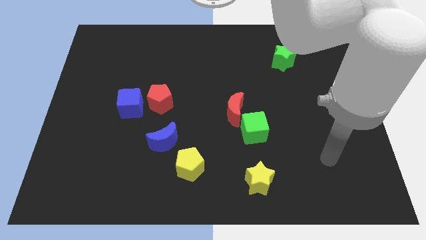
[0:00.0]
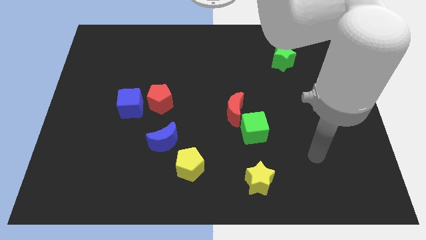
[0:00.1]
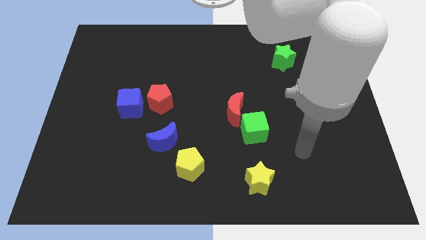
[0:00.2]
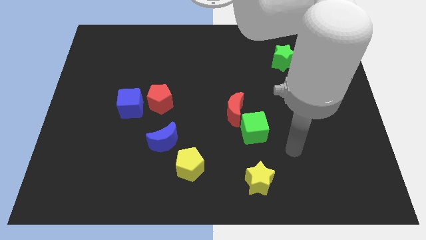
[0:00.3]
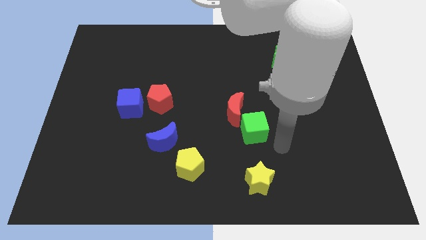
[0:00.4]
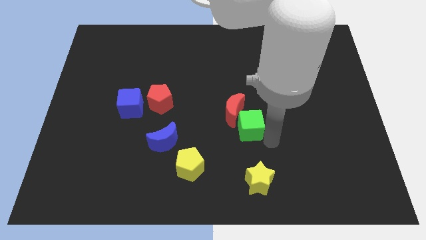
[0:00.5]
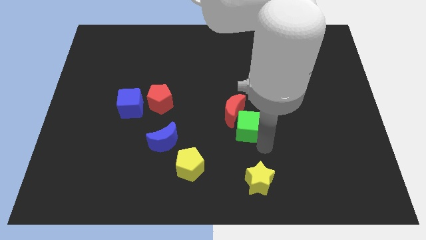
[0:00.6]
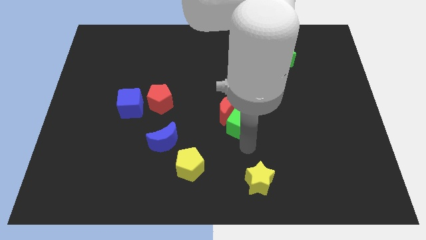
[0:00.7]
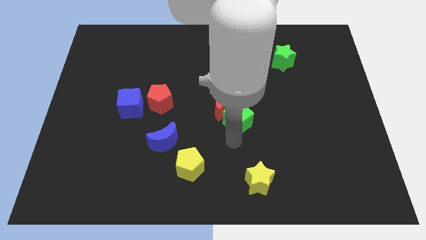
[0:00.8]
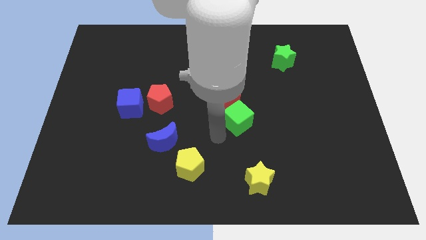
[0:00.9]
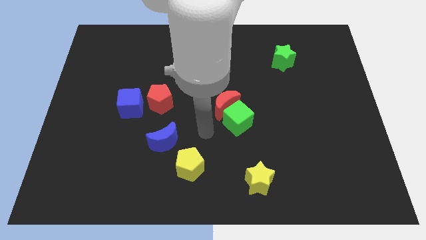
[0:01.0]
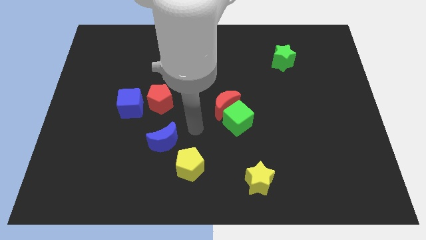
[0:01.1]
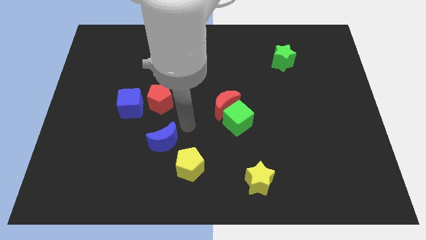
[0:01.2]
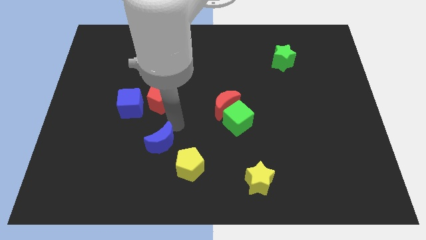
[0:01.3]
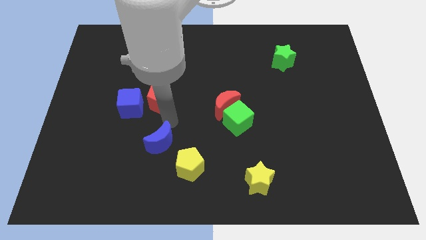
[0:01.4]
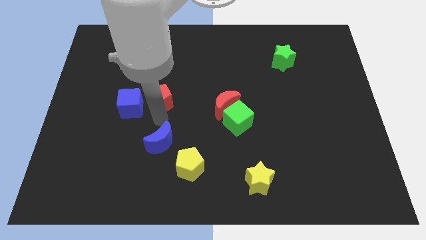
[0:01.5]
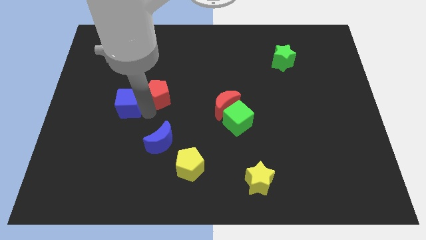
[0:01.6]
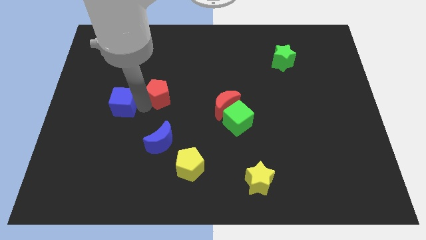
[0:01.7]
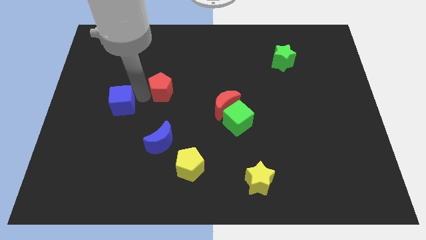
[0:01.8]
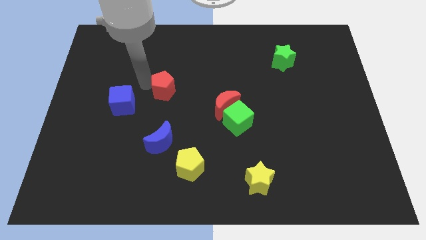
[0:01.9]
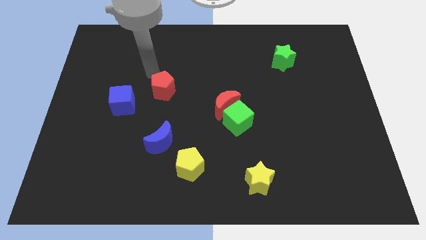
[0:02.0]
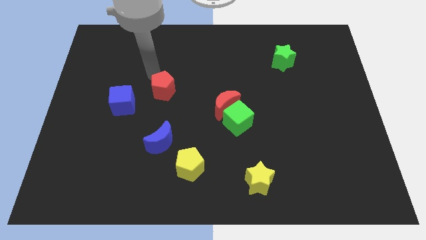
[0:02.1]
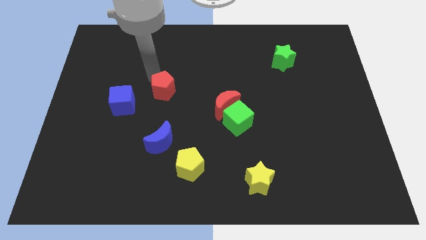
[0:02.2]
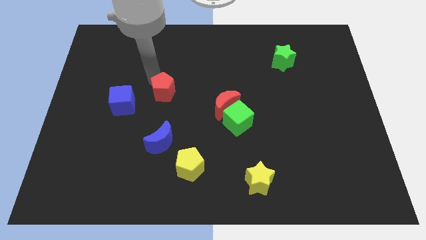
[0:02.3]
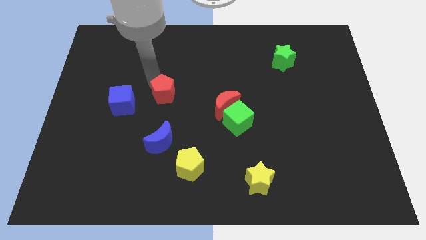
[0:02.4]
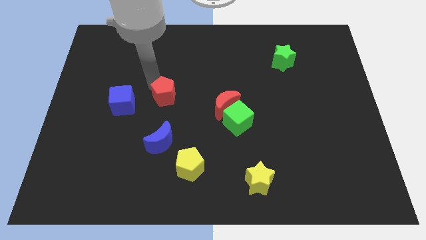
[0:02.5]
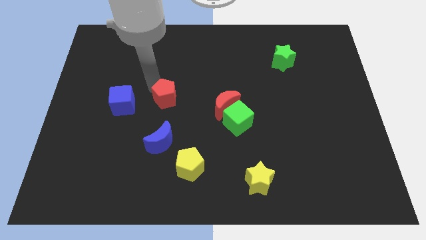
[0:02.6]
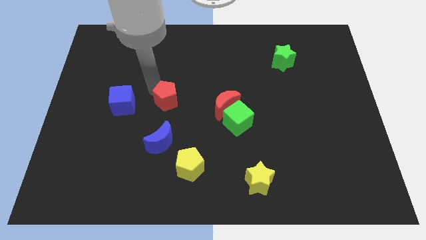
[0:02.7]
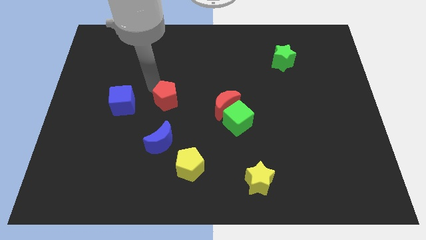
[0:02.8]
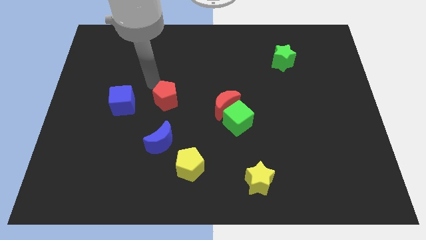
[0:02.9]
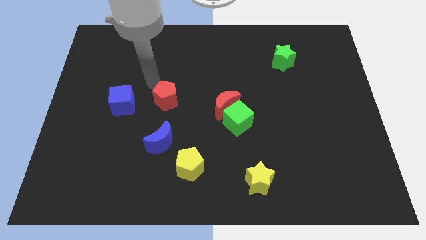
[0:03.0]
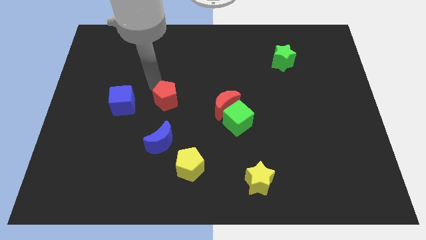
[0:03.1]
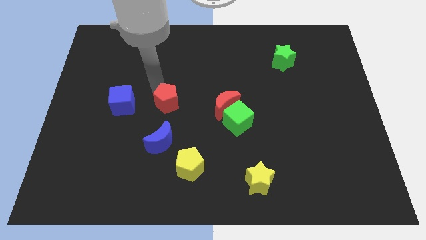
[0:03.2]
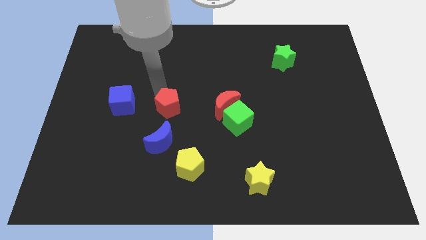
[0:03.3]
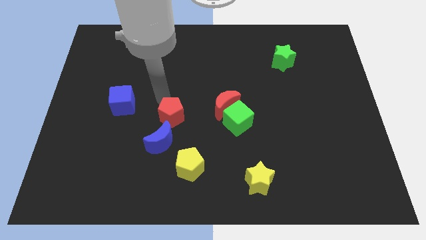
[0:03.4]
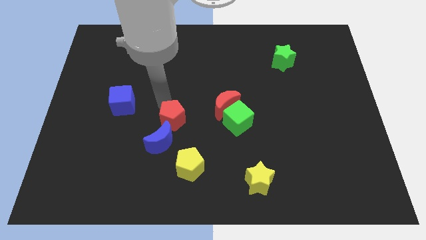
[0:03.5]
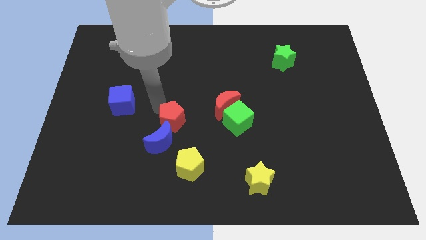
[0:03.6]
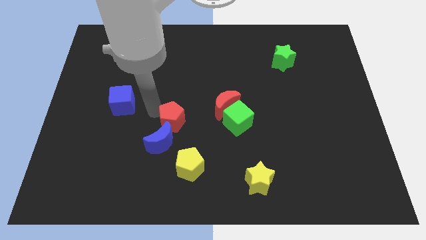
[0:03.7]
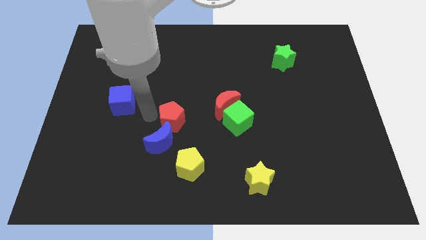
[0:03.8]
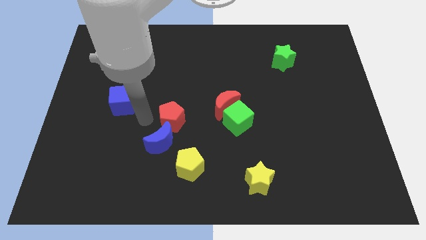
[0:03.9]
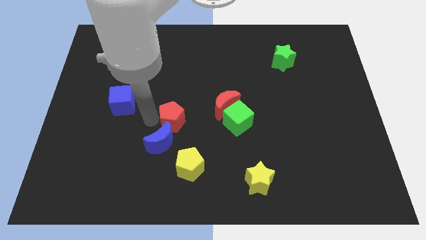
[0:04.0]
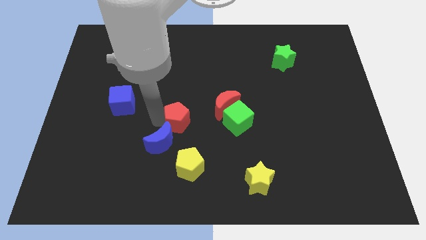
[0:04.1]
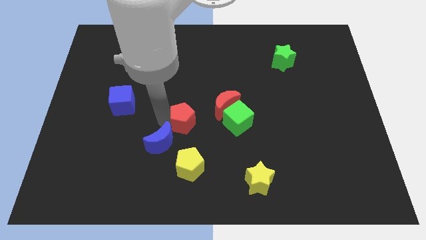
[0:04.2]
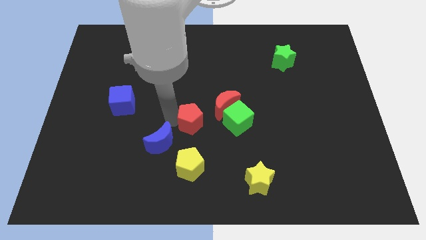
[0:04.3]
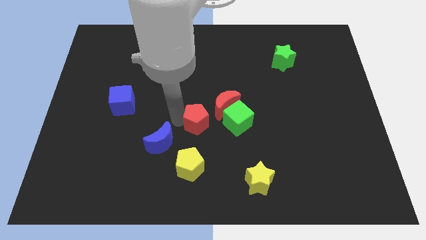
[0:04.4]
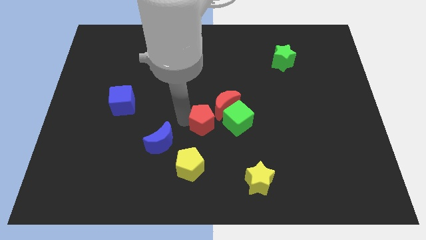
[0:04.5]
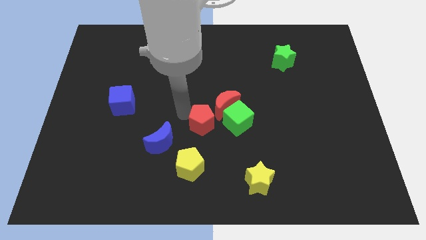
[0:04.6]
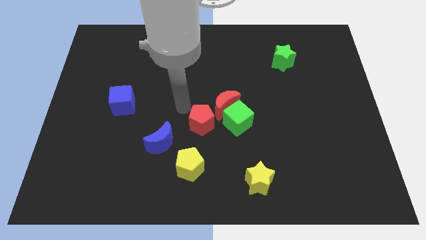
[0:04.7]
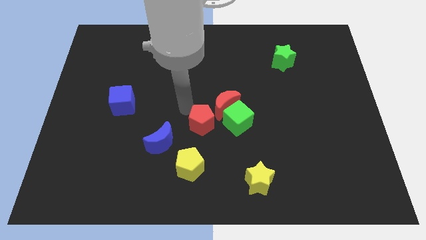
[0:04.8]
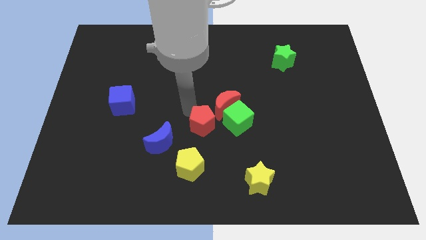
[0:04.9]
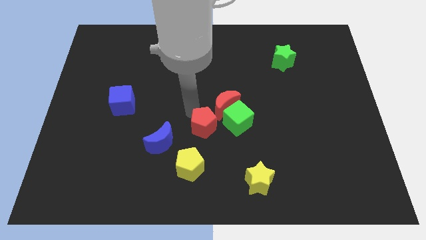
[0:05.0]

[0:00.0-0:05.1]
push the red pentagon to the bottom side of the red moon

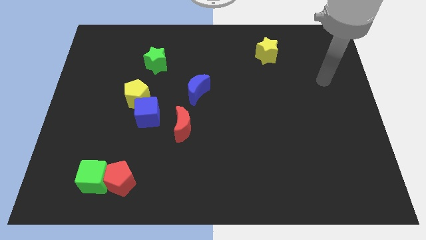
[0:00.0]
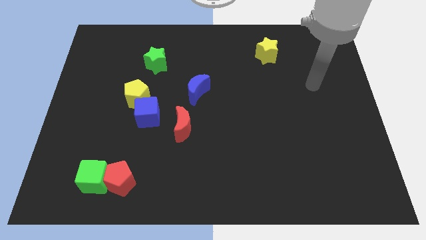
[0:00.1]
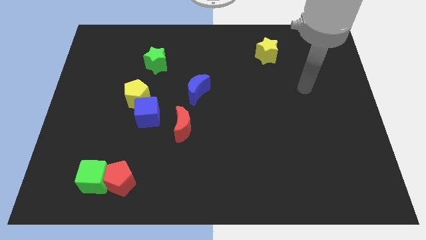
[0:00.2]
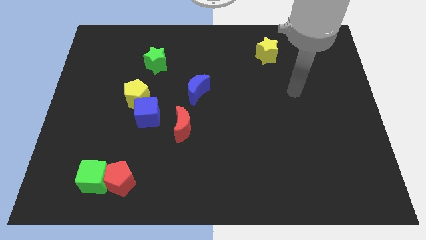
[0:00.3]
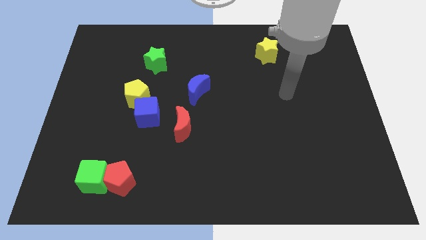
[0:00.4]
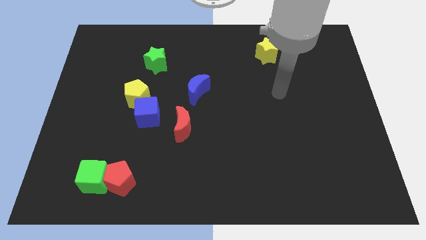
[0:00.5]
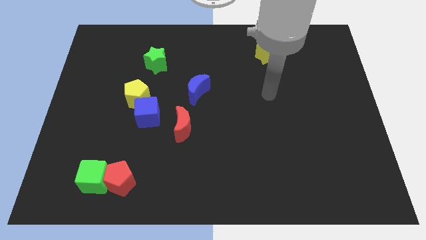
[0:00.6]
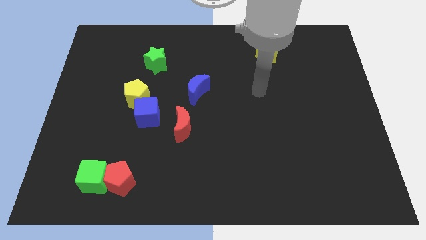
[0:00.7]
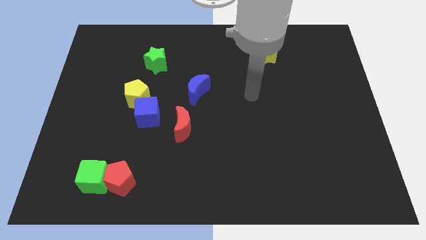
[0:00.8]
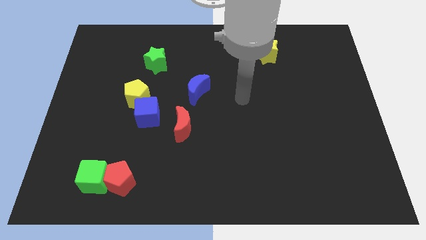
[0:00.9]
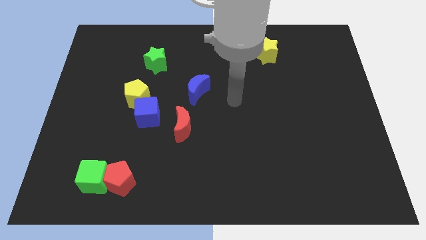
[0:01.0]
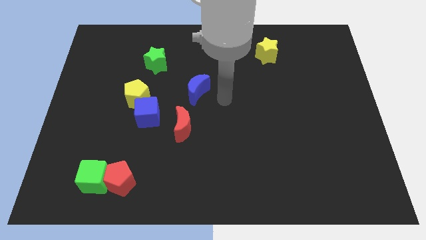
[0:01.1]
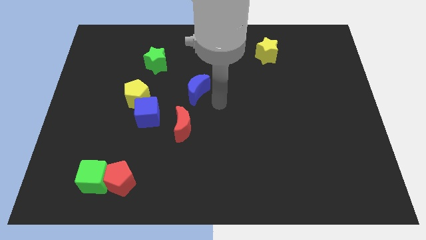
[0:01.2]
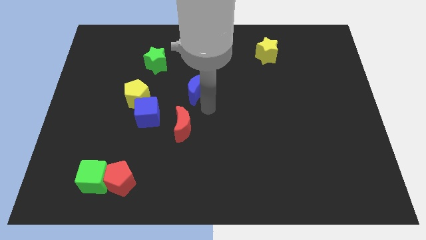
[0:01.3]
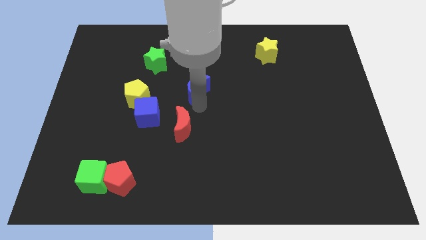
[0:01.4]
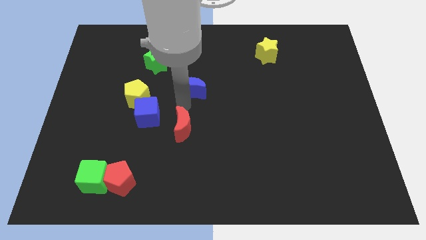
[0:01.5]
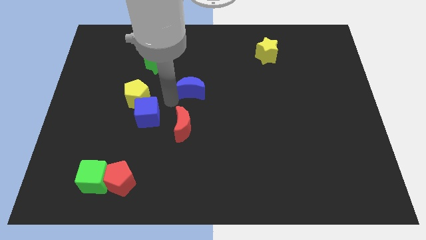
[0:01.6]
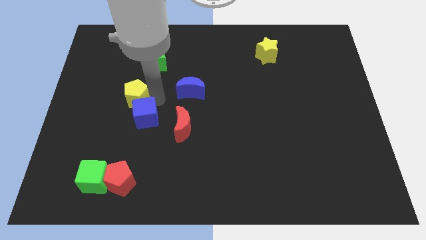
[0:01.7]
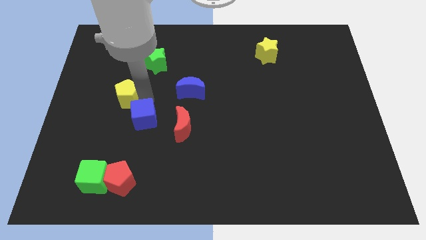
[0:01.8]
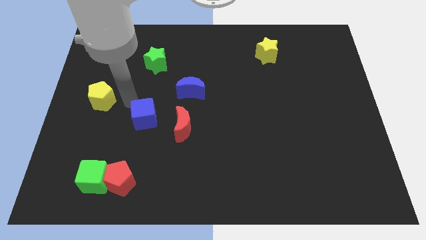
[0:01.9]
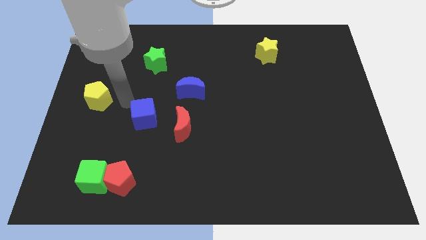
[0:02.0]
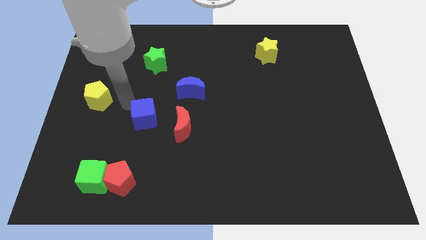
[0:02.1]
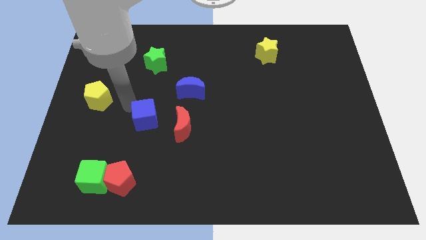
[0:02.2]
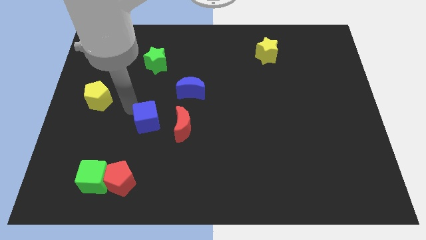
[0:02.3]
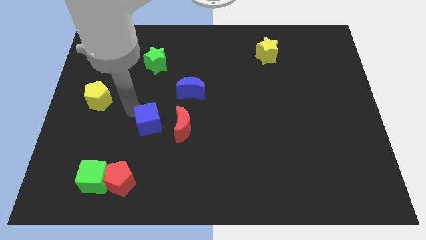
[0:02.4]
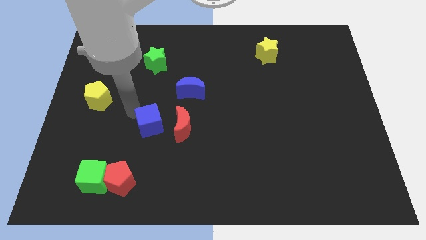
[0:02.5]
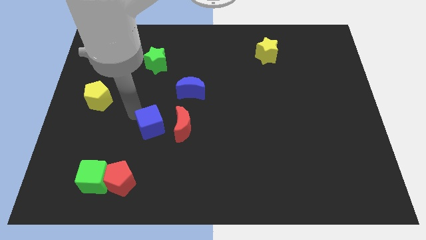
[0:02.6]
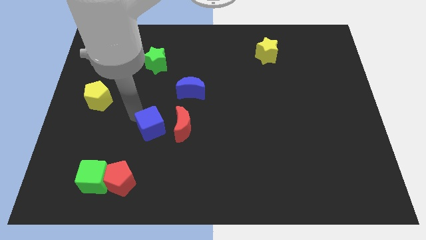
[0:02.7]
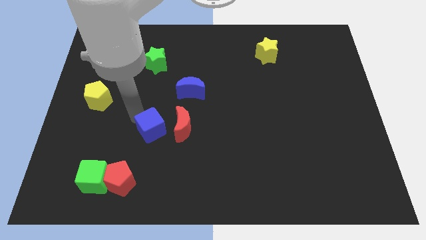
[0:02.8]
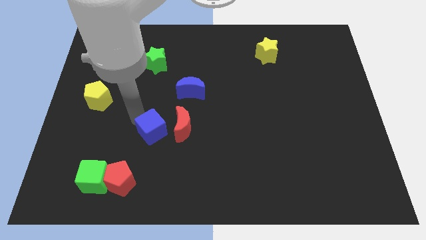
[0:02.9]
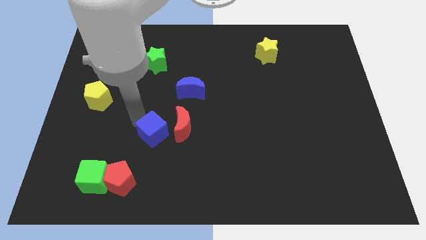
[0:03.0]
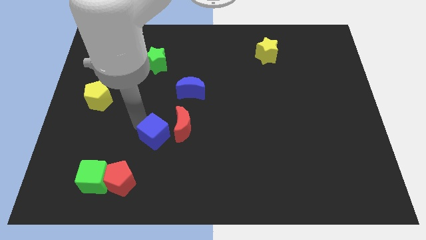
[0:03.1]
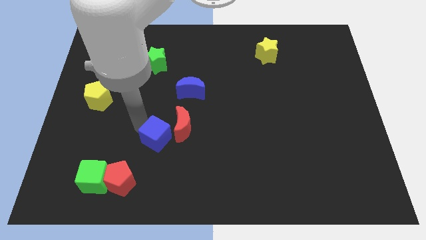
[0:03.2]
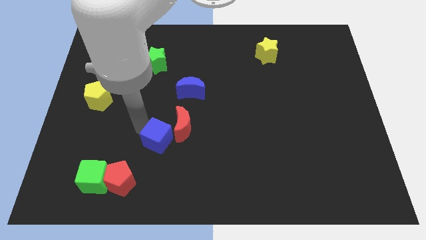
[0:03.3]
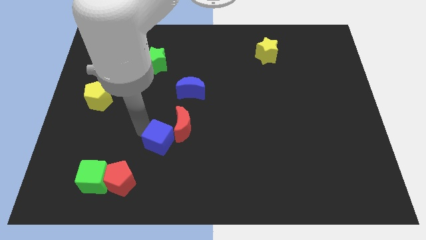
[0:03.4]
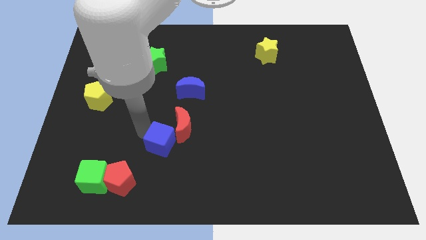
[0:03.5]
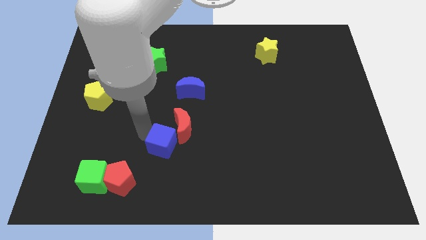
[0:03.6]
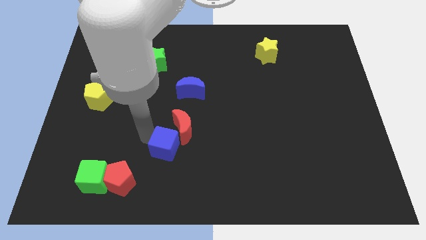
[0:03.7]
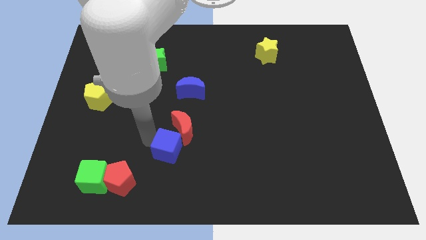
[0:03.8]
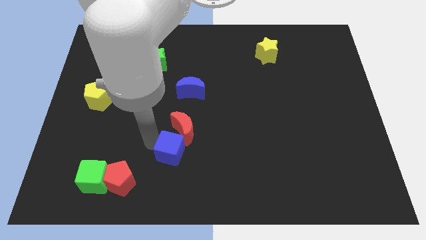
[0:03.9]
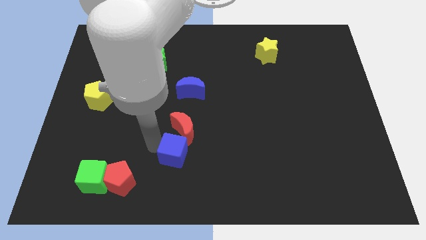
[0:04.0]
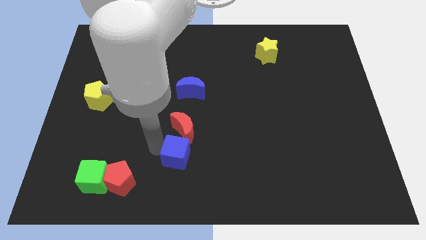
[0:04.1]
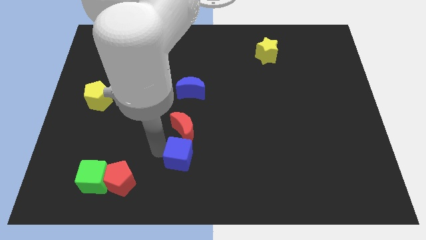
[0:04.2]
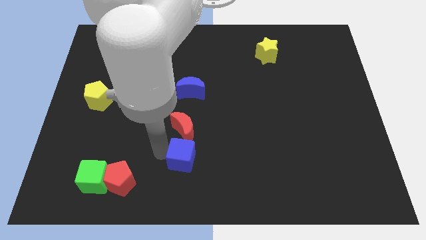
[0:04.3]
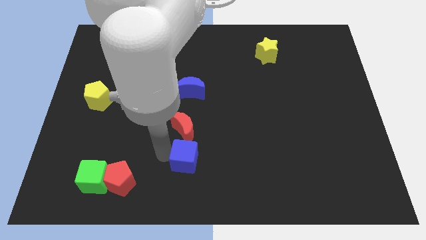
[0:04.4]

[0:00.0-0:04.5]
slide the blue cube to the bottom right of the red moon
